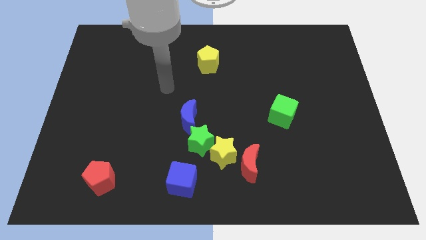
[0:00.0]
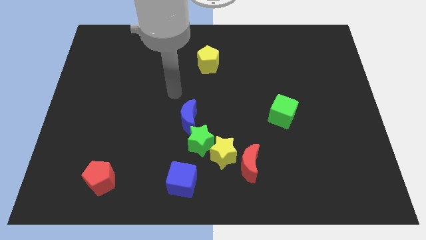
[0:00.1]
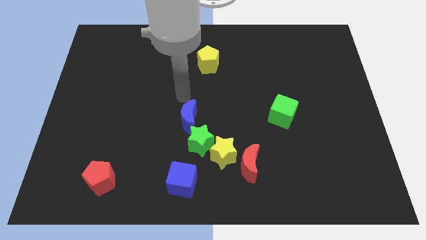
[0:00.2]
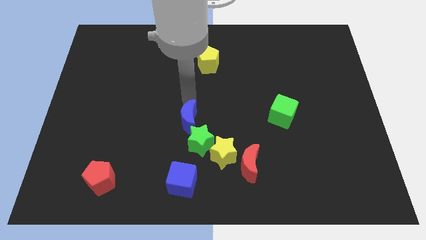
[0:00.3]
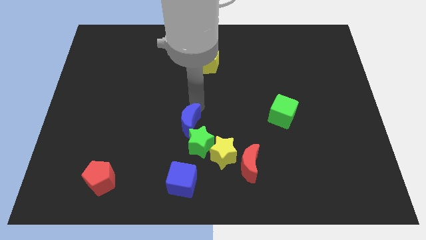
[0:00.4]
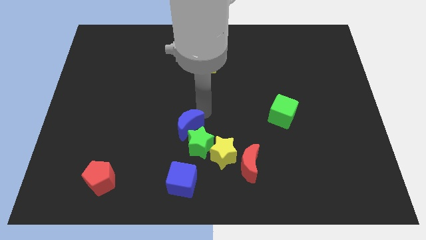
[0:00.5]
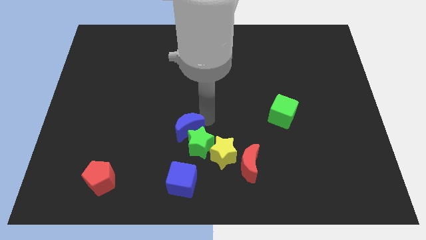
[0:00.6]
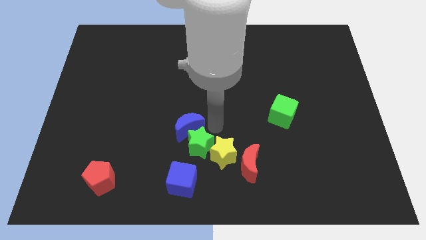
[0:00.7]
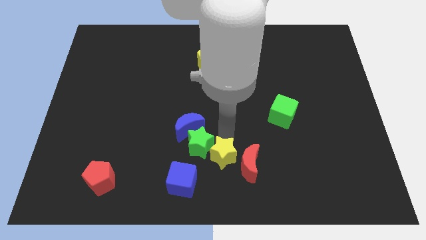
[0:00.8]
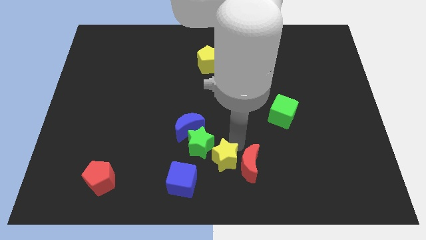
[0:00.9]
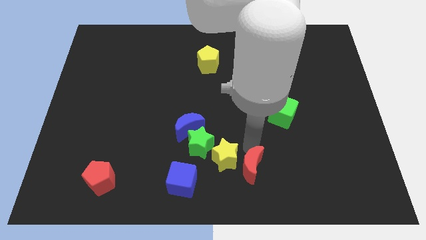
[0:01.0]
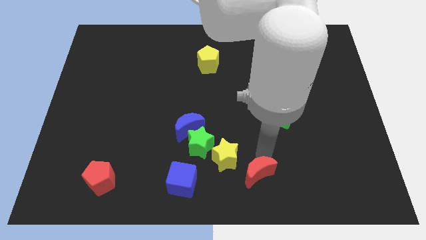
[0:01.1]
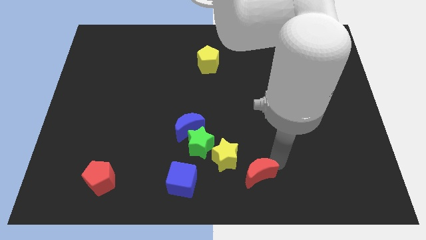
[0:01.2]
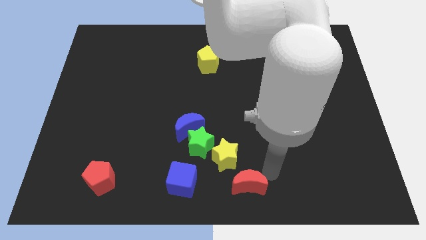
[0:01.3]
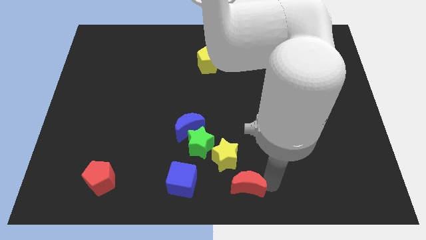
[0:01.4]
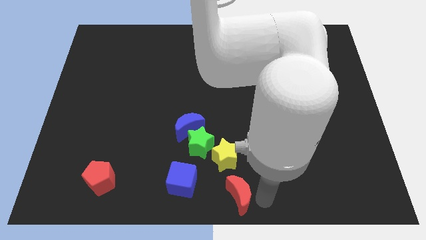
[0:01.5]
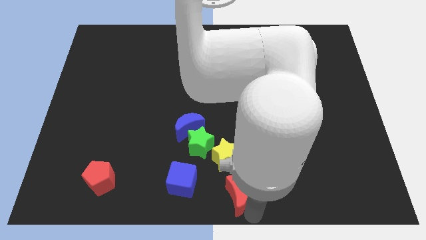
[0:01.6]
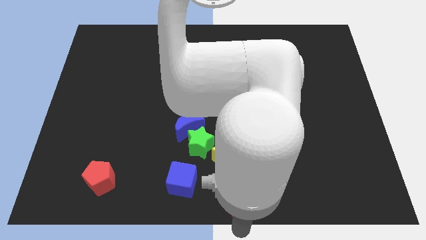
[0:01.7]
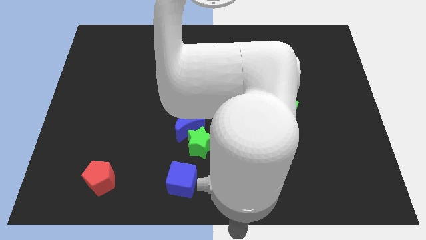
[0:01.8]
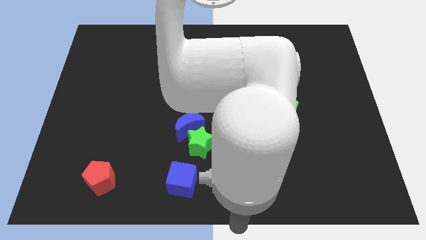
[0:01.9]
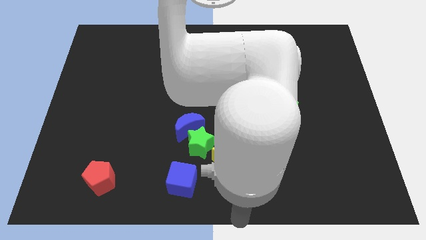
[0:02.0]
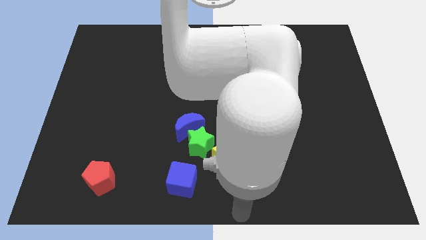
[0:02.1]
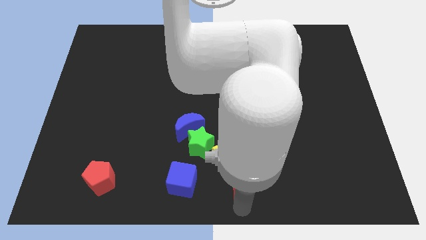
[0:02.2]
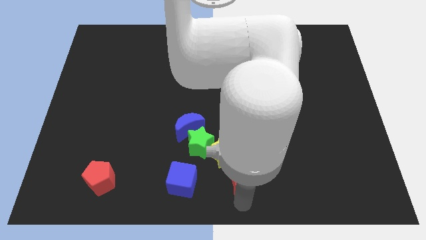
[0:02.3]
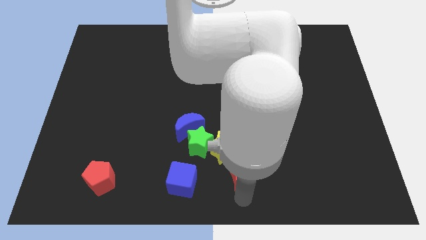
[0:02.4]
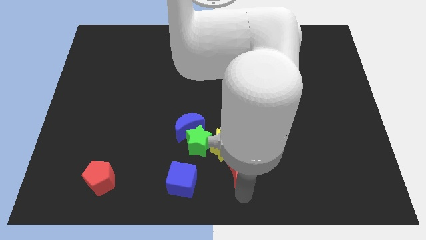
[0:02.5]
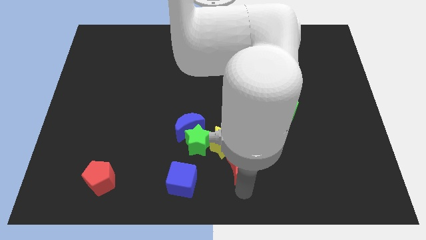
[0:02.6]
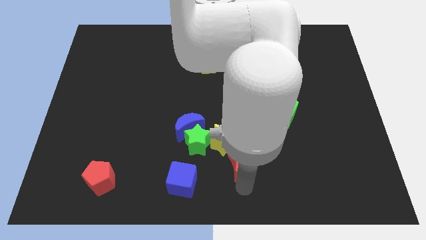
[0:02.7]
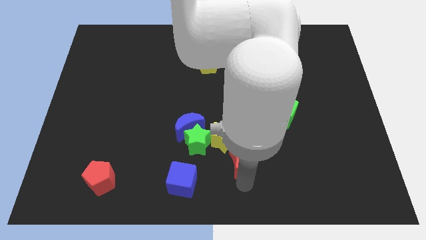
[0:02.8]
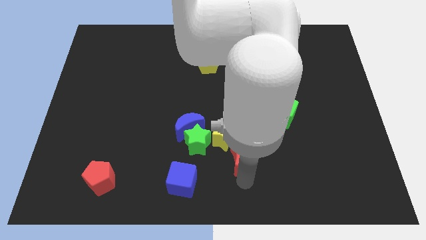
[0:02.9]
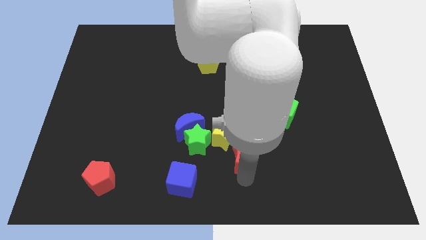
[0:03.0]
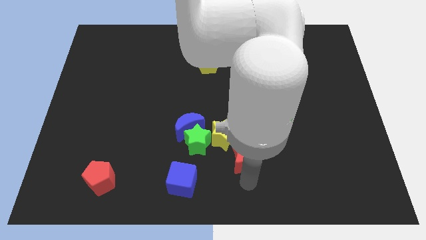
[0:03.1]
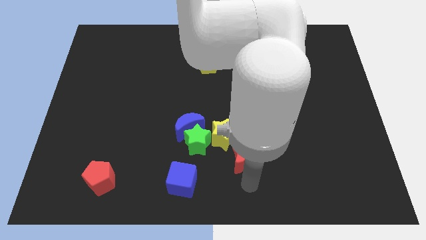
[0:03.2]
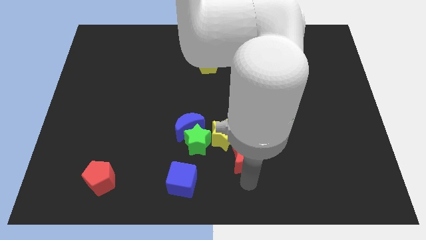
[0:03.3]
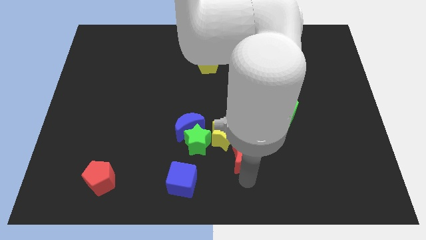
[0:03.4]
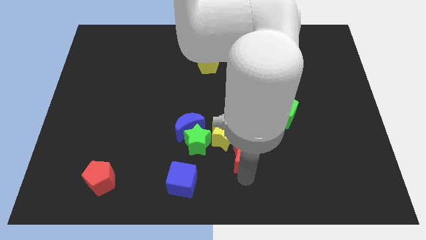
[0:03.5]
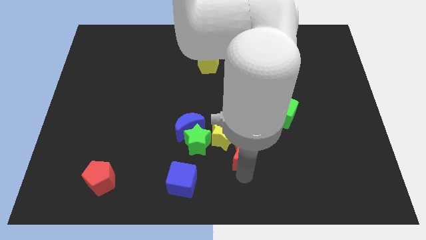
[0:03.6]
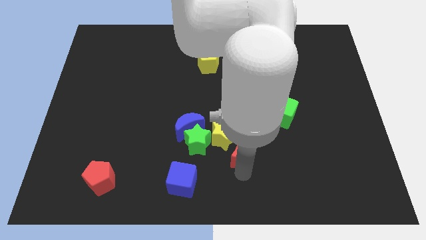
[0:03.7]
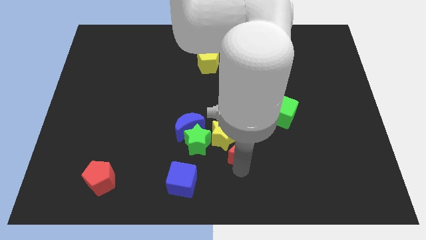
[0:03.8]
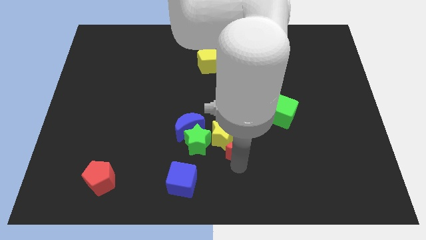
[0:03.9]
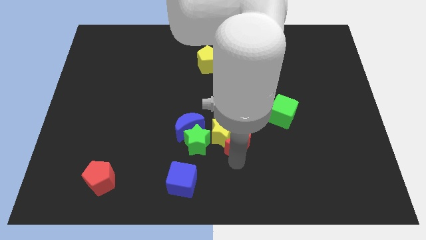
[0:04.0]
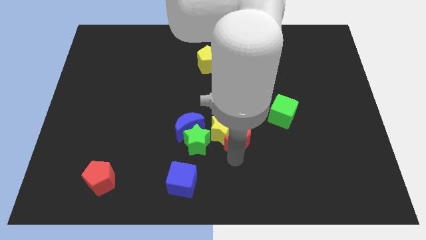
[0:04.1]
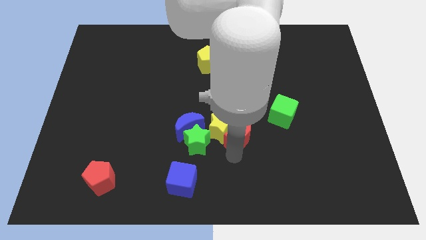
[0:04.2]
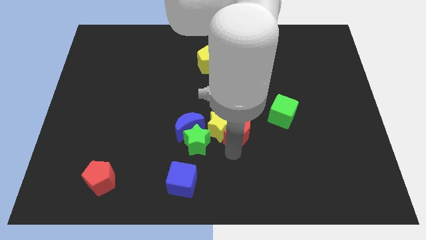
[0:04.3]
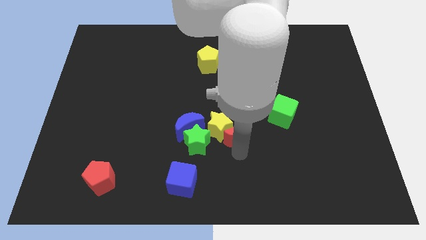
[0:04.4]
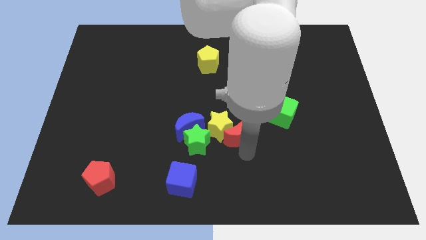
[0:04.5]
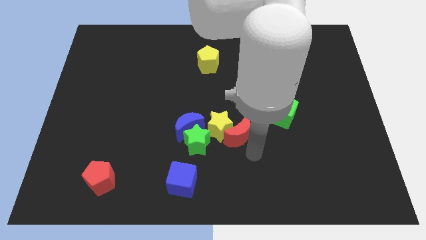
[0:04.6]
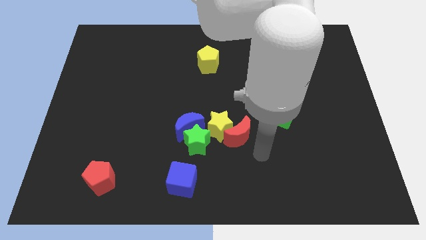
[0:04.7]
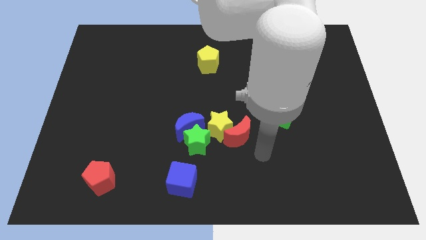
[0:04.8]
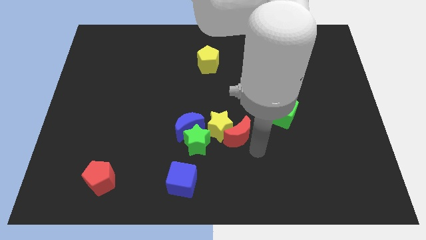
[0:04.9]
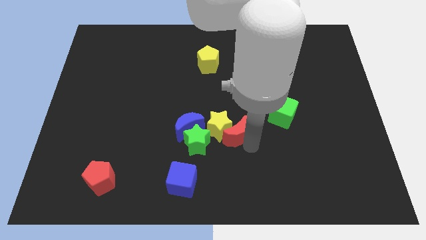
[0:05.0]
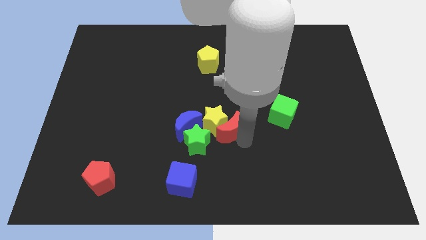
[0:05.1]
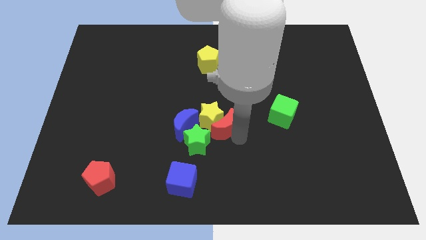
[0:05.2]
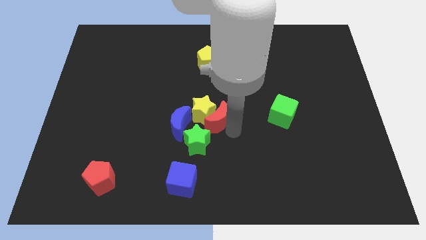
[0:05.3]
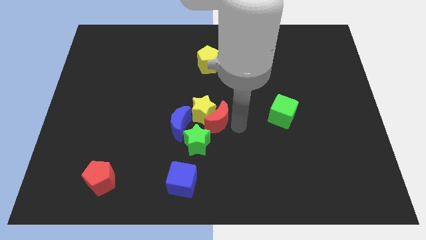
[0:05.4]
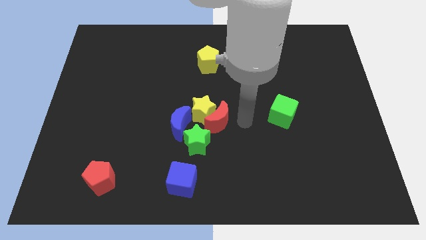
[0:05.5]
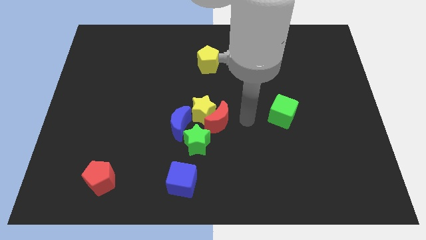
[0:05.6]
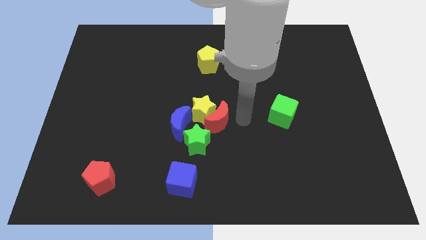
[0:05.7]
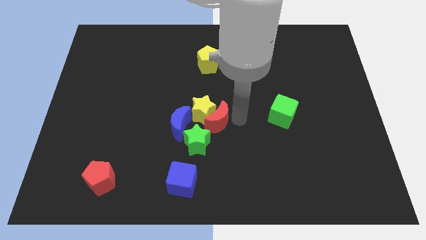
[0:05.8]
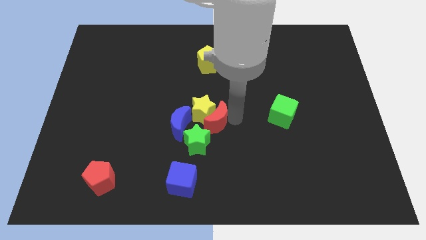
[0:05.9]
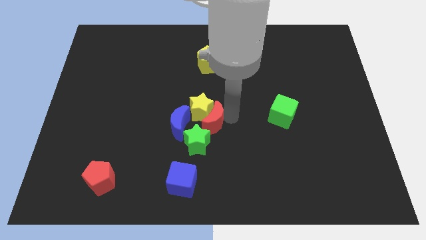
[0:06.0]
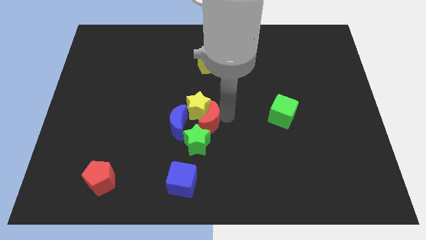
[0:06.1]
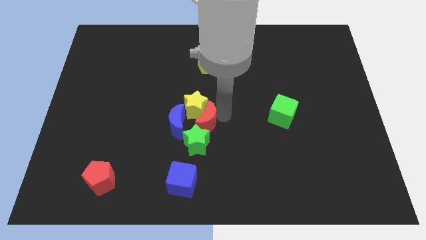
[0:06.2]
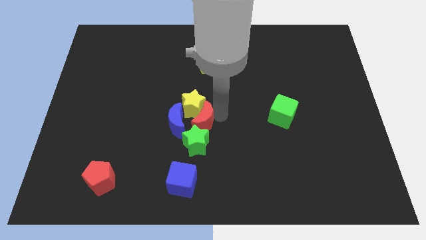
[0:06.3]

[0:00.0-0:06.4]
move the red moon to the blue moon
